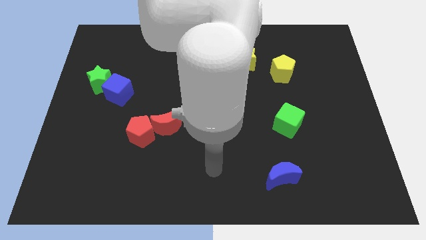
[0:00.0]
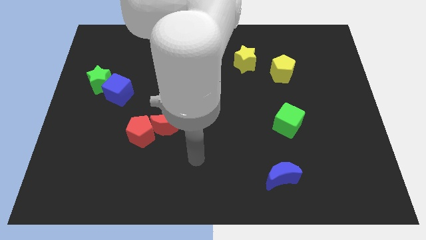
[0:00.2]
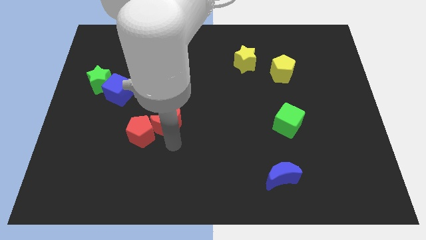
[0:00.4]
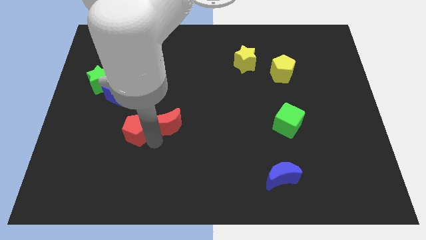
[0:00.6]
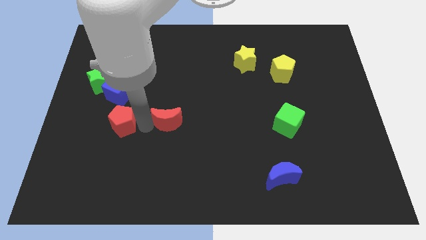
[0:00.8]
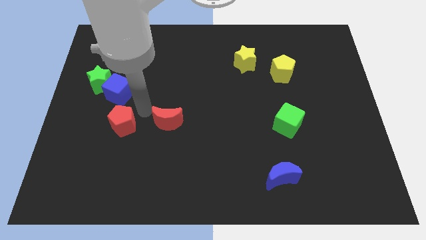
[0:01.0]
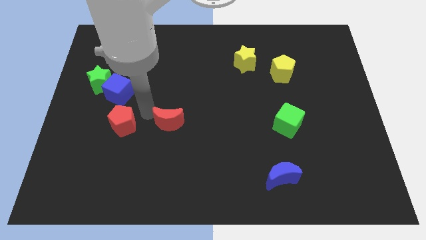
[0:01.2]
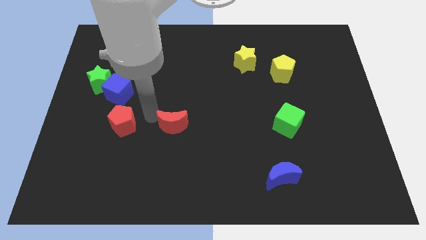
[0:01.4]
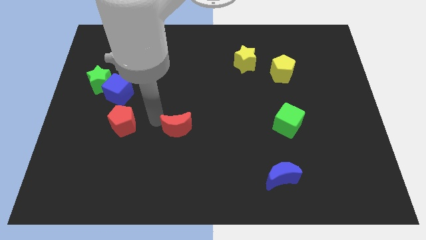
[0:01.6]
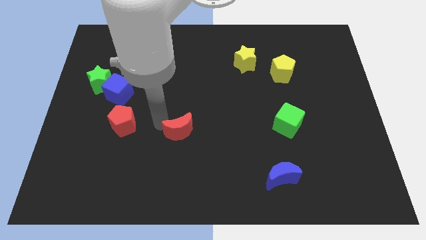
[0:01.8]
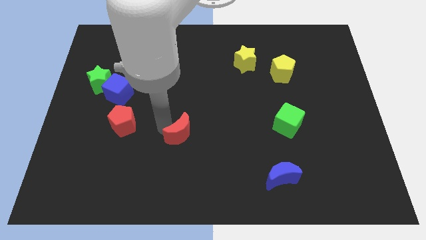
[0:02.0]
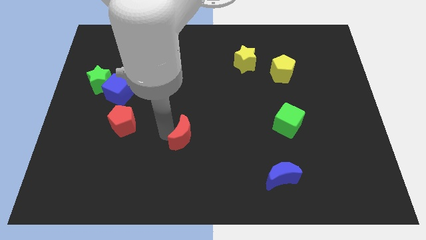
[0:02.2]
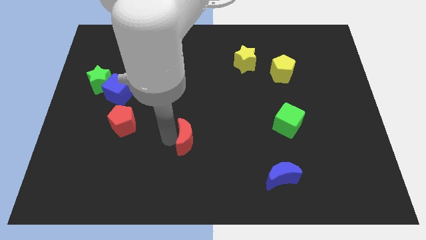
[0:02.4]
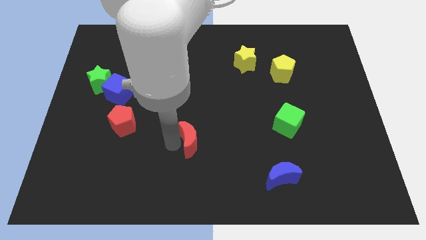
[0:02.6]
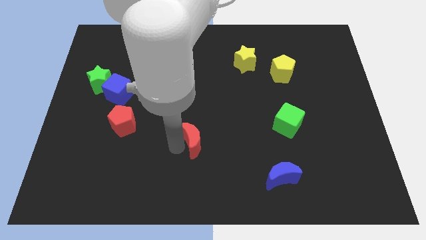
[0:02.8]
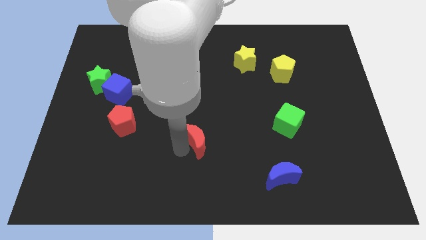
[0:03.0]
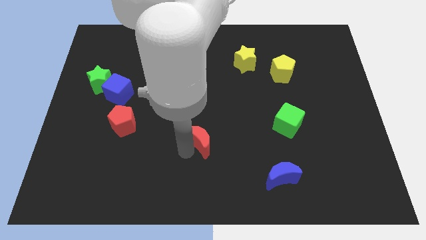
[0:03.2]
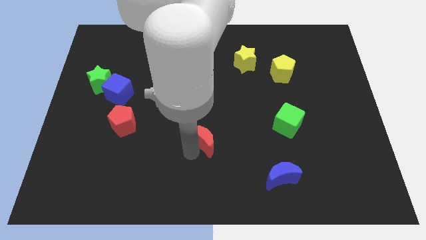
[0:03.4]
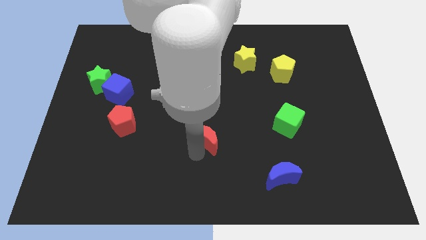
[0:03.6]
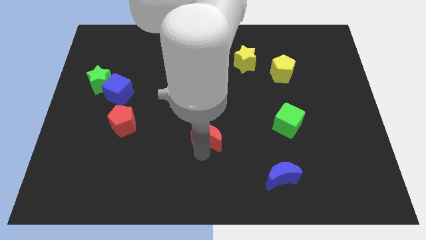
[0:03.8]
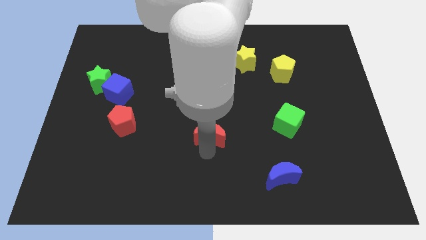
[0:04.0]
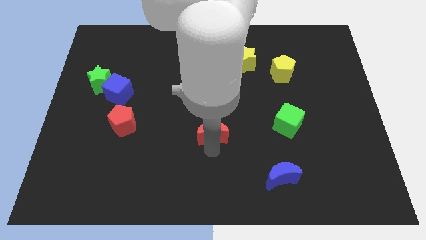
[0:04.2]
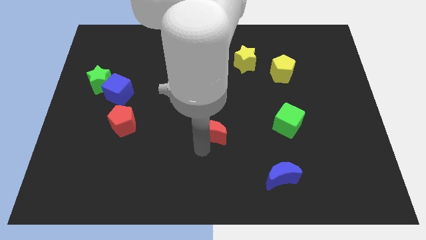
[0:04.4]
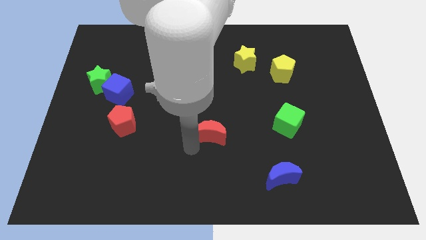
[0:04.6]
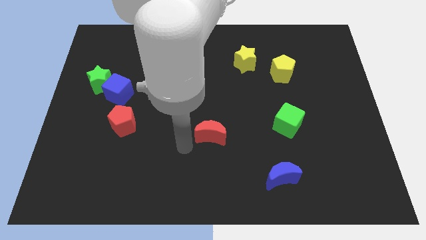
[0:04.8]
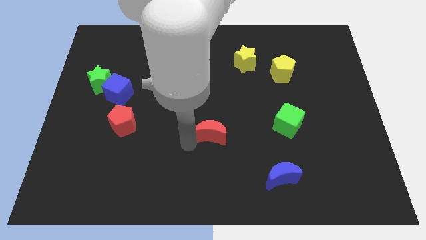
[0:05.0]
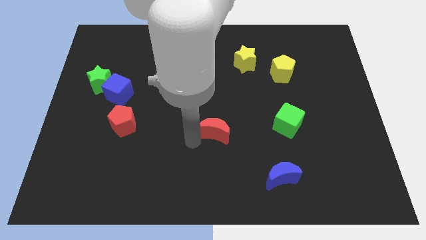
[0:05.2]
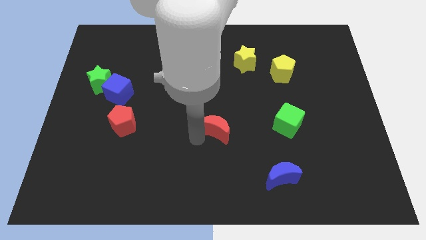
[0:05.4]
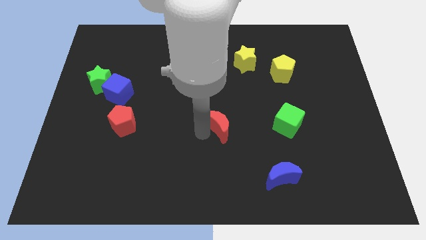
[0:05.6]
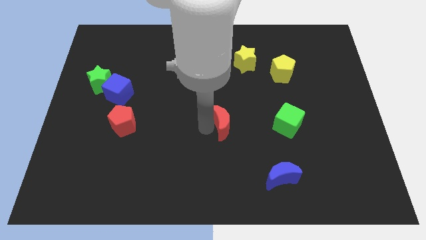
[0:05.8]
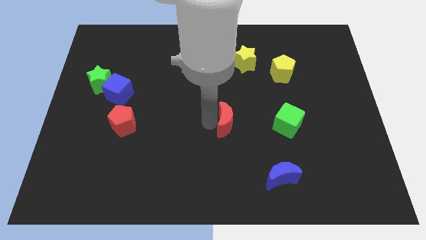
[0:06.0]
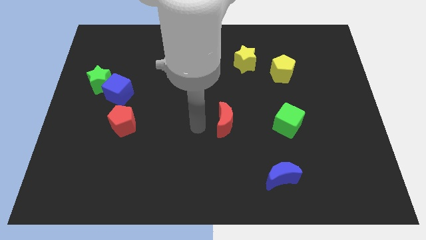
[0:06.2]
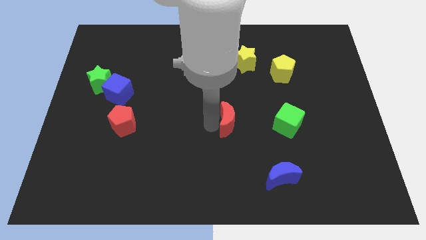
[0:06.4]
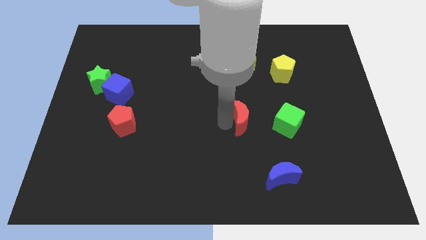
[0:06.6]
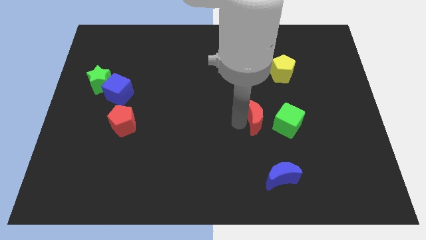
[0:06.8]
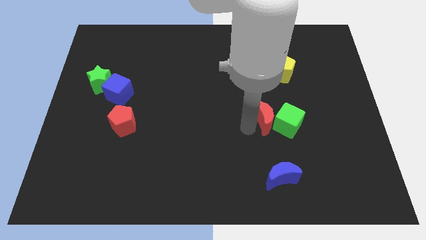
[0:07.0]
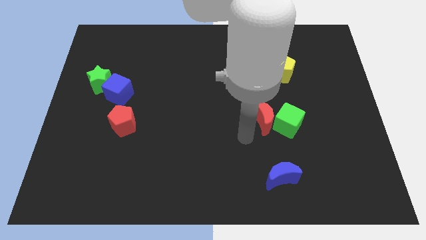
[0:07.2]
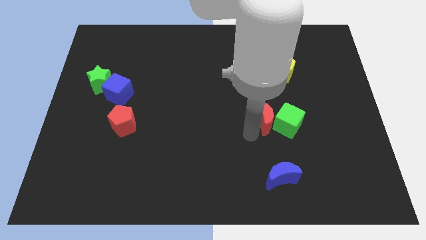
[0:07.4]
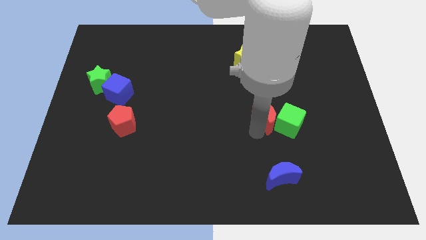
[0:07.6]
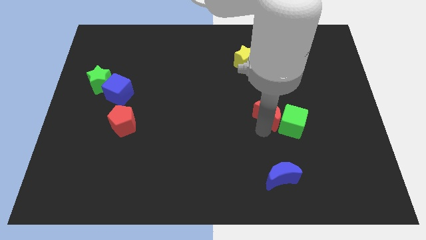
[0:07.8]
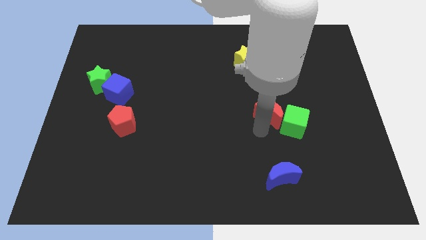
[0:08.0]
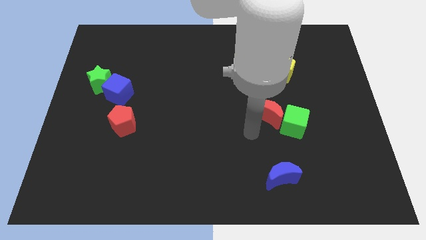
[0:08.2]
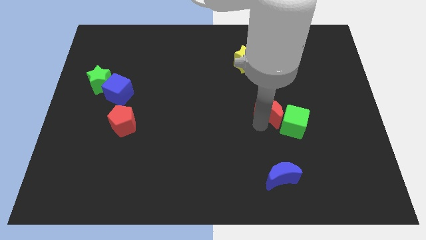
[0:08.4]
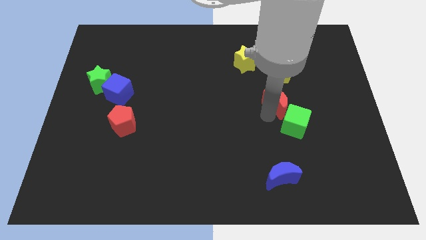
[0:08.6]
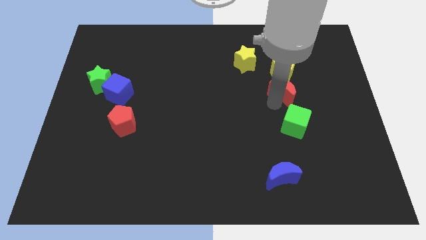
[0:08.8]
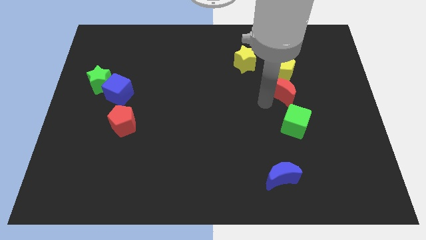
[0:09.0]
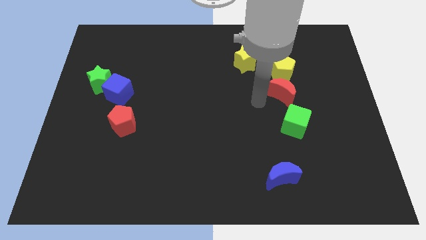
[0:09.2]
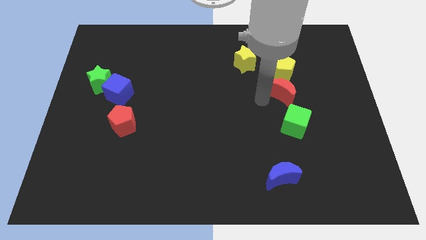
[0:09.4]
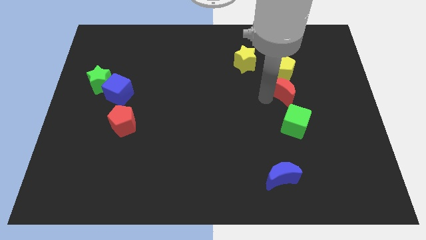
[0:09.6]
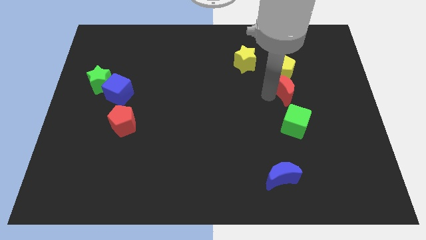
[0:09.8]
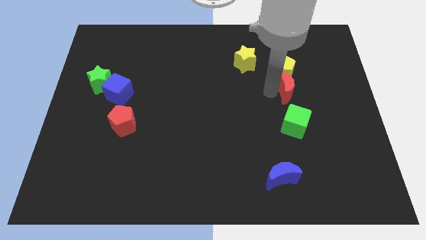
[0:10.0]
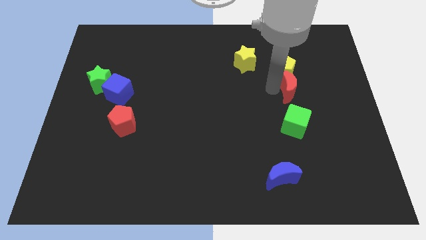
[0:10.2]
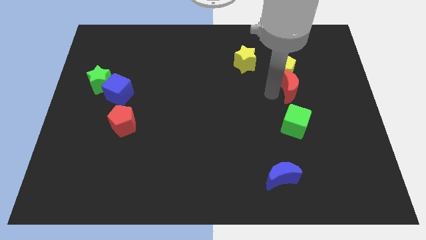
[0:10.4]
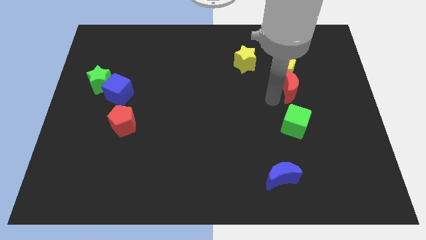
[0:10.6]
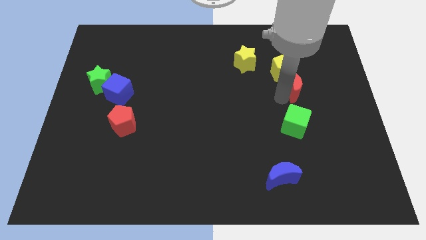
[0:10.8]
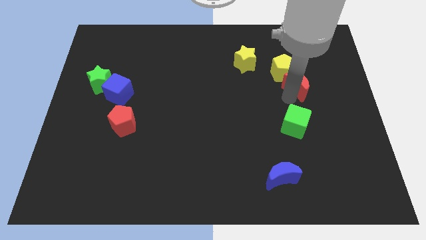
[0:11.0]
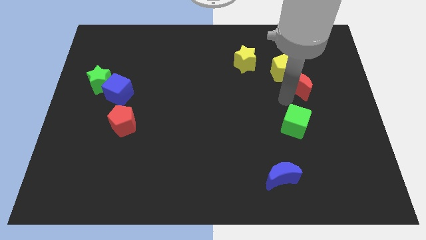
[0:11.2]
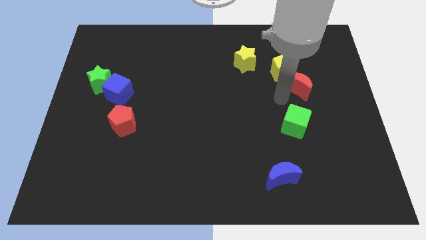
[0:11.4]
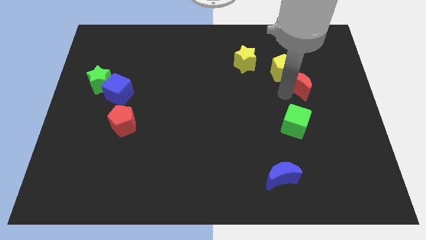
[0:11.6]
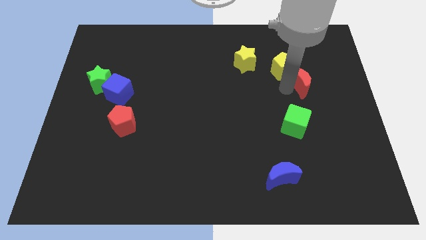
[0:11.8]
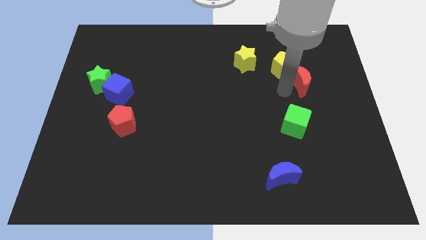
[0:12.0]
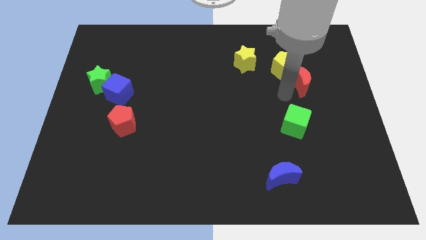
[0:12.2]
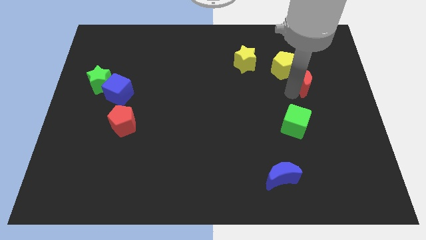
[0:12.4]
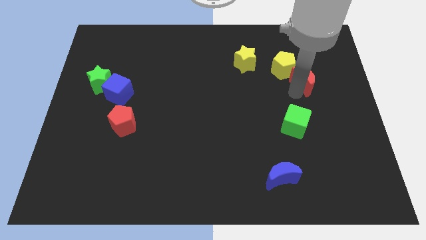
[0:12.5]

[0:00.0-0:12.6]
push the red moon just right of the yellow pentagon

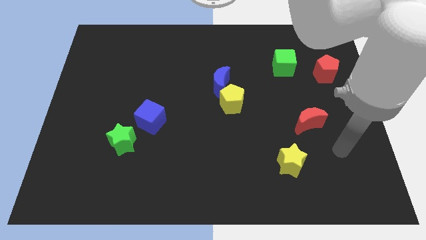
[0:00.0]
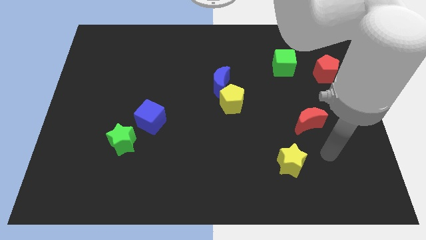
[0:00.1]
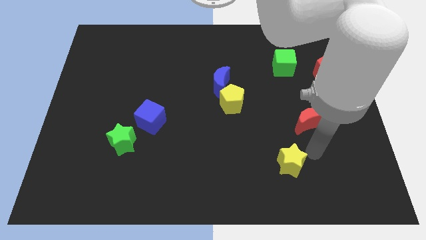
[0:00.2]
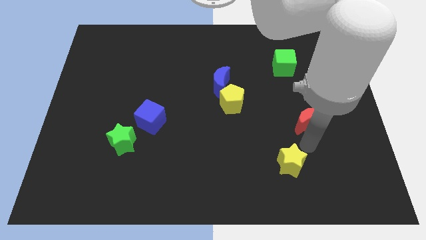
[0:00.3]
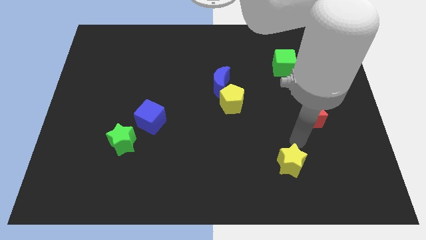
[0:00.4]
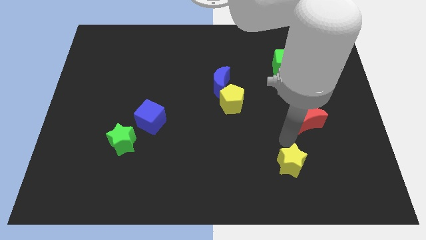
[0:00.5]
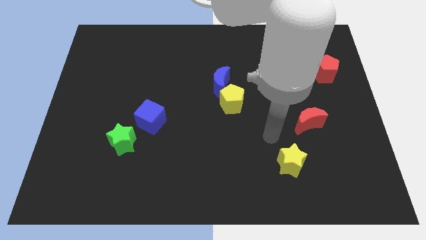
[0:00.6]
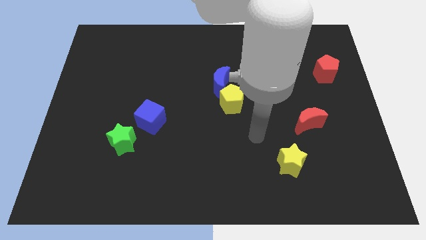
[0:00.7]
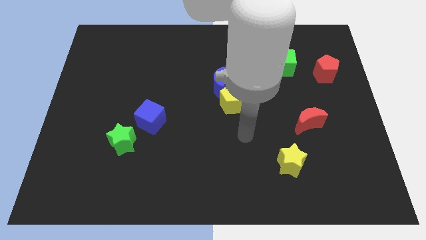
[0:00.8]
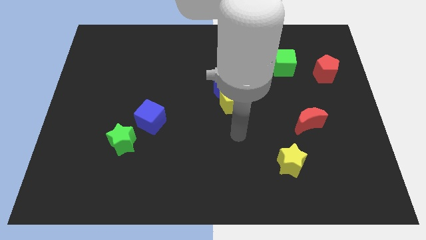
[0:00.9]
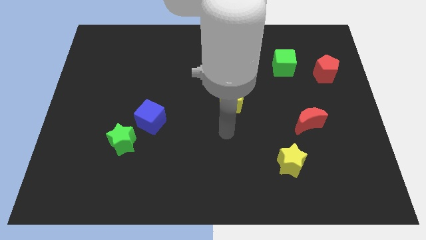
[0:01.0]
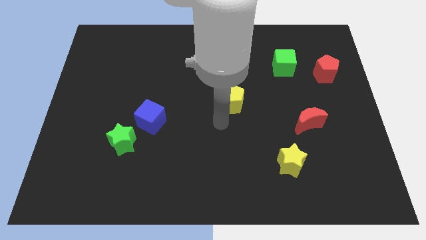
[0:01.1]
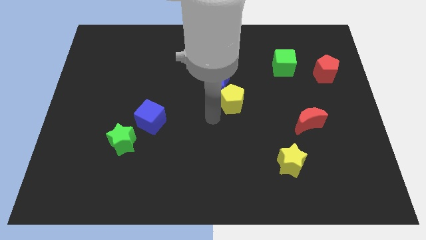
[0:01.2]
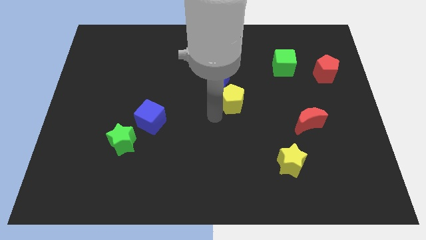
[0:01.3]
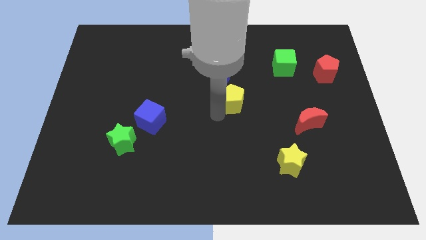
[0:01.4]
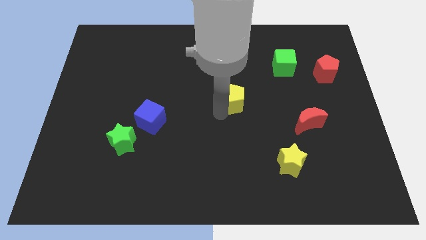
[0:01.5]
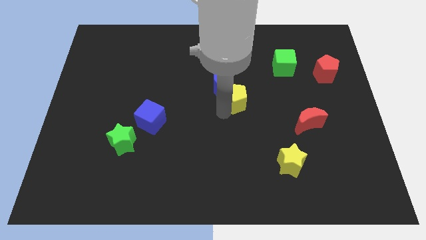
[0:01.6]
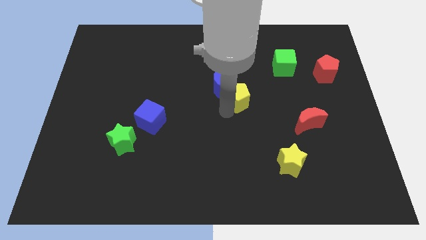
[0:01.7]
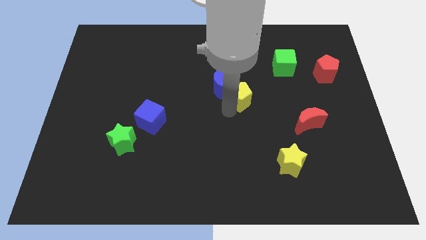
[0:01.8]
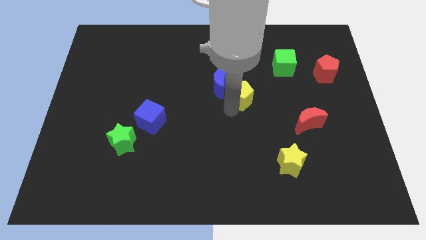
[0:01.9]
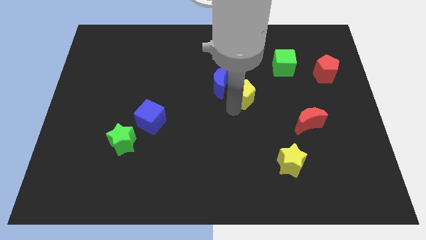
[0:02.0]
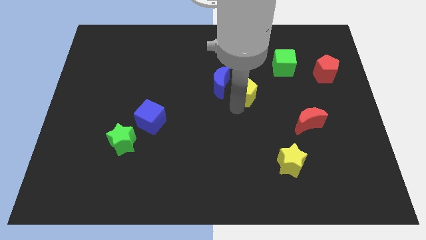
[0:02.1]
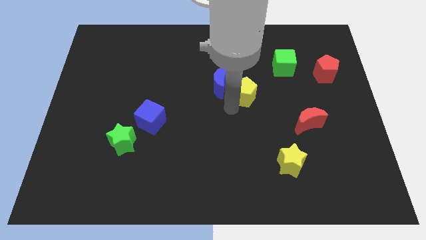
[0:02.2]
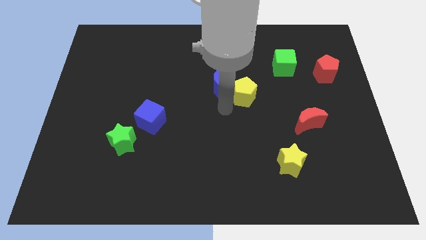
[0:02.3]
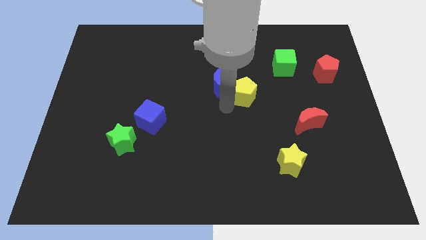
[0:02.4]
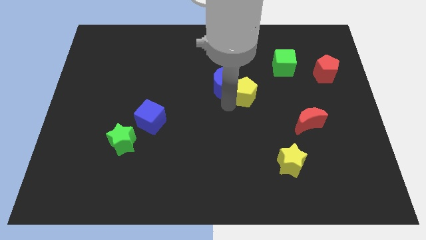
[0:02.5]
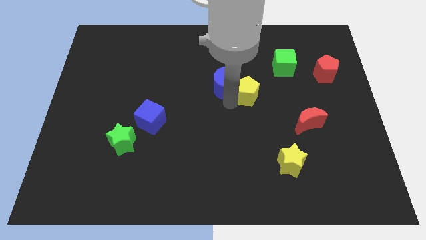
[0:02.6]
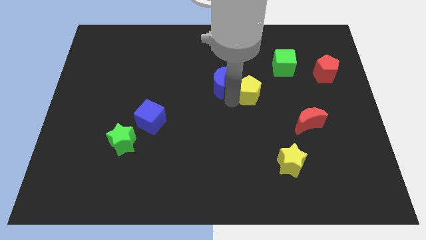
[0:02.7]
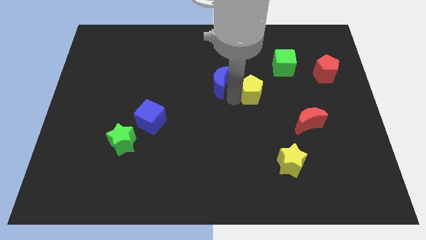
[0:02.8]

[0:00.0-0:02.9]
put the yellow pentagon to the bottom left of the green cube
